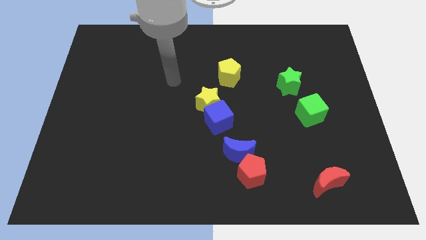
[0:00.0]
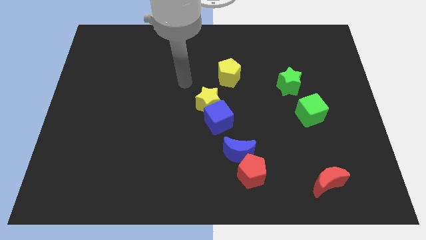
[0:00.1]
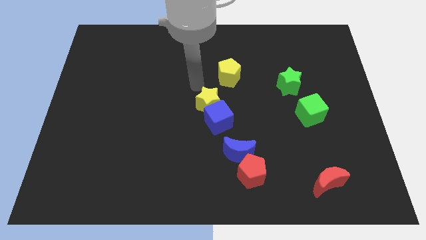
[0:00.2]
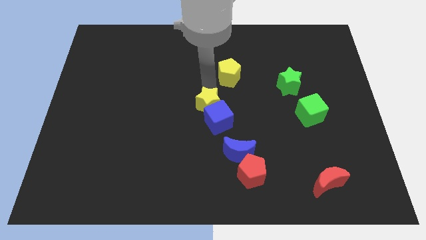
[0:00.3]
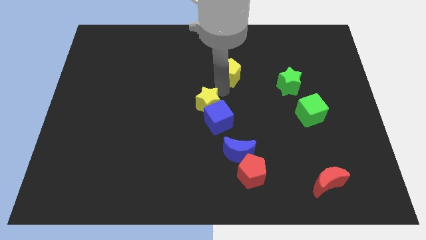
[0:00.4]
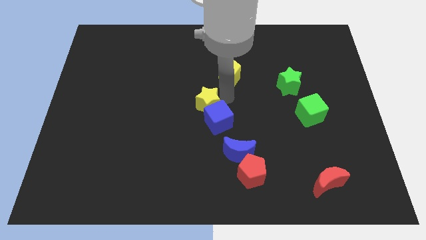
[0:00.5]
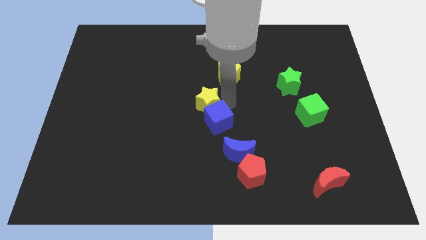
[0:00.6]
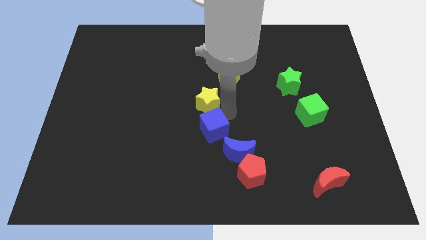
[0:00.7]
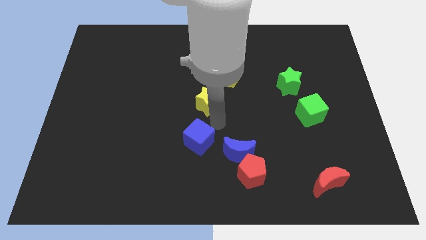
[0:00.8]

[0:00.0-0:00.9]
move the yellow star away from the blue cube

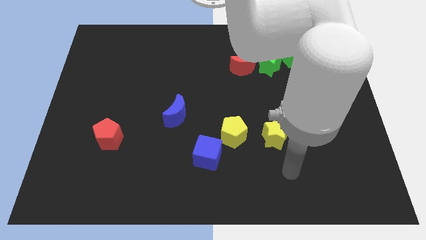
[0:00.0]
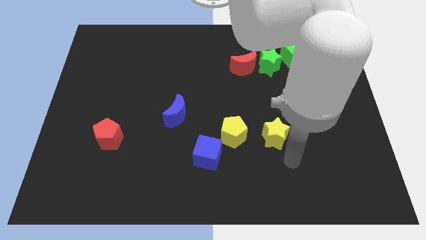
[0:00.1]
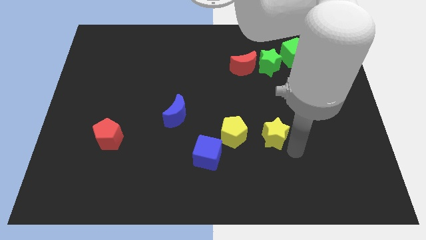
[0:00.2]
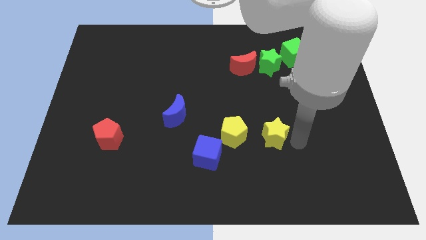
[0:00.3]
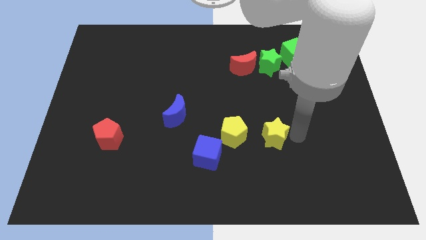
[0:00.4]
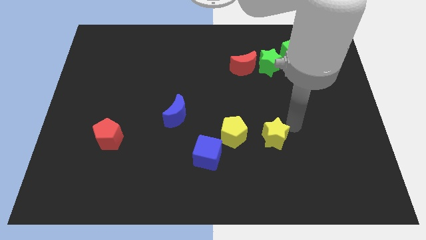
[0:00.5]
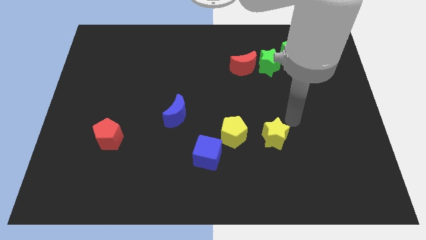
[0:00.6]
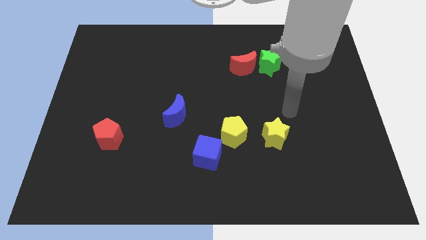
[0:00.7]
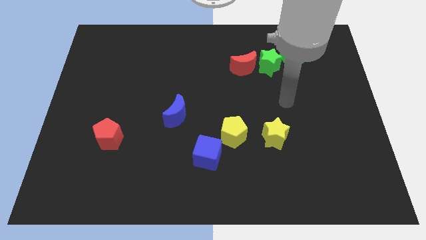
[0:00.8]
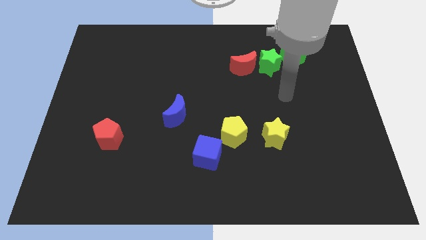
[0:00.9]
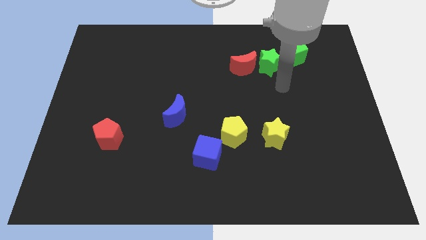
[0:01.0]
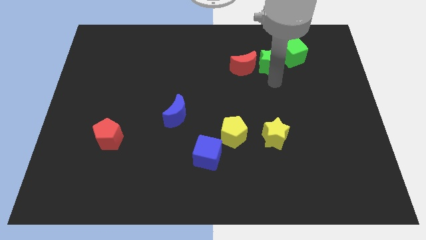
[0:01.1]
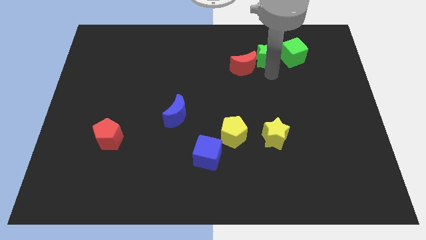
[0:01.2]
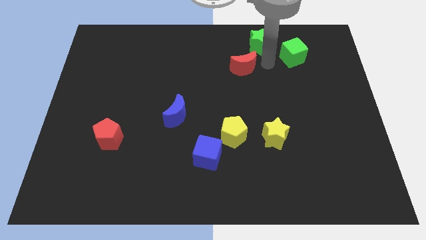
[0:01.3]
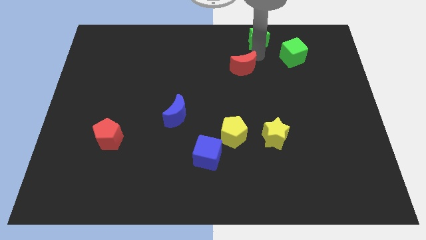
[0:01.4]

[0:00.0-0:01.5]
pull the red moon apart from the green star

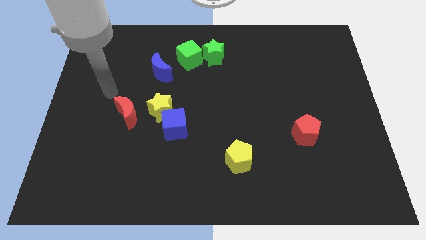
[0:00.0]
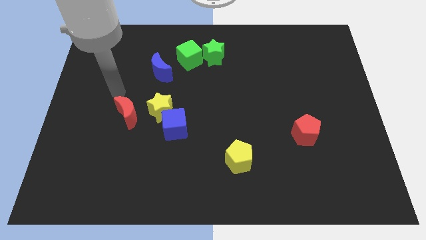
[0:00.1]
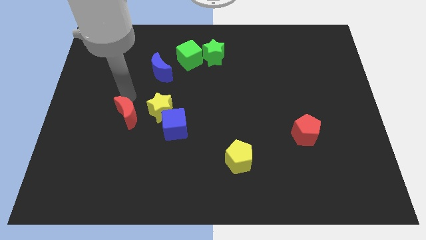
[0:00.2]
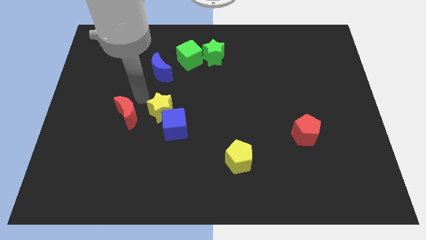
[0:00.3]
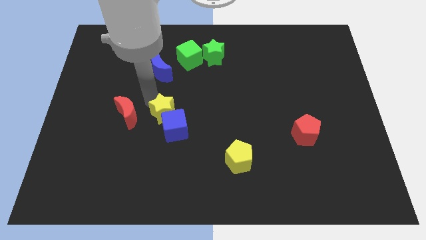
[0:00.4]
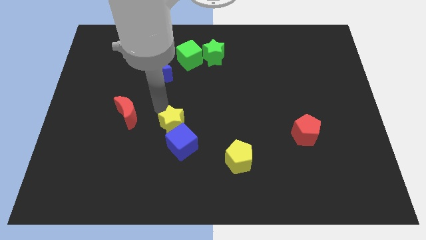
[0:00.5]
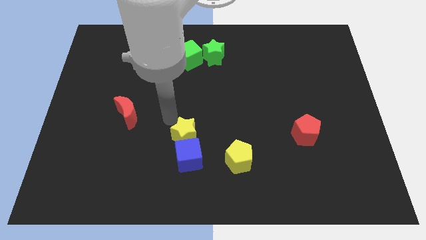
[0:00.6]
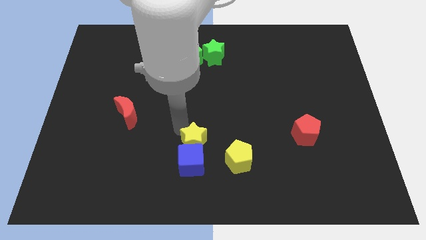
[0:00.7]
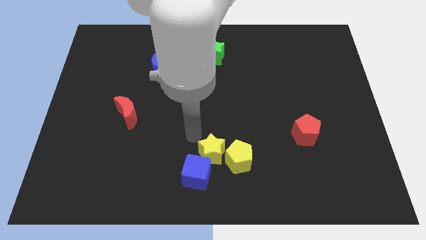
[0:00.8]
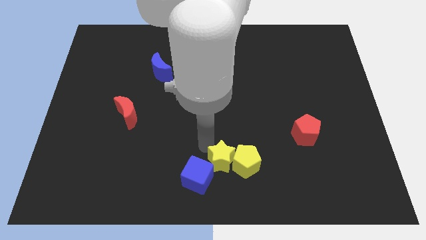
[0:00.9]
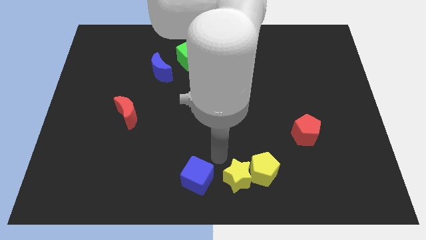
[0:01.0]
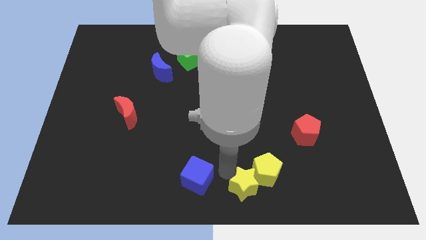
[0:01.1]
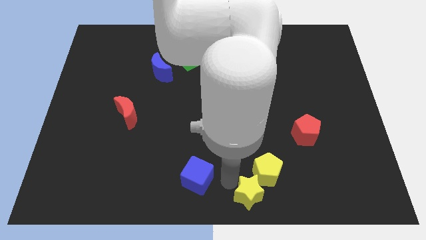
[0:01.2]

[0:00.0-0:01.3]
pull the blue cube apart from the yellow star

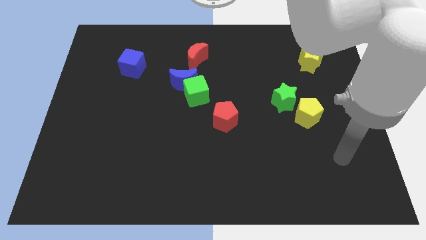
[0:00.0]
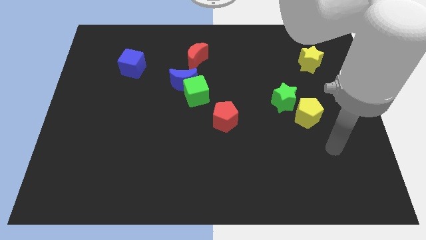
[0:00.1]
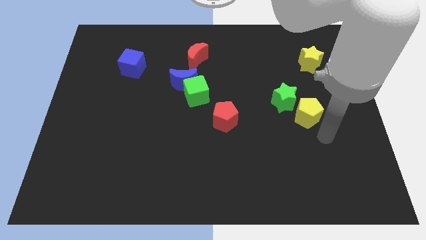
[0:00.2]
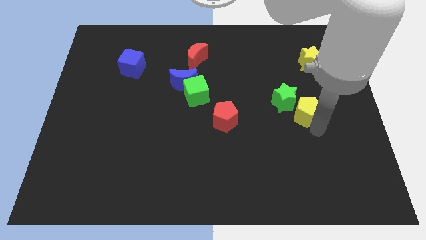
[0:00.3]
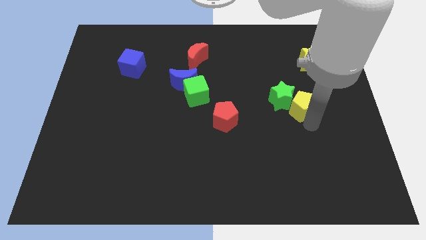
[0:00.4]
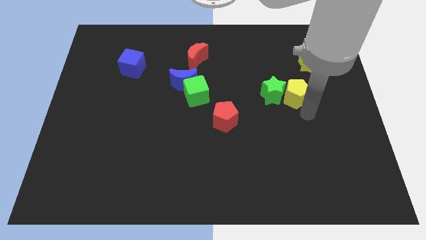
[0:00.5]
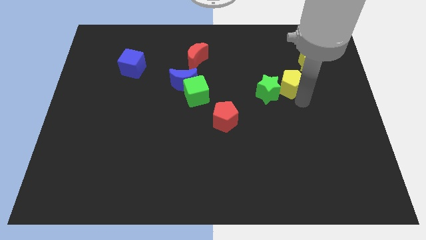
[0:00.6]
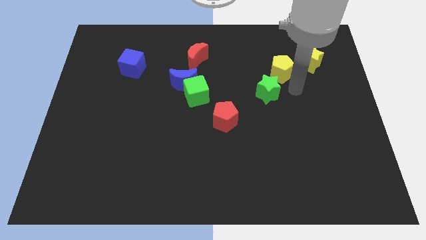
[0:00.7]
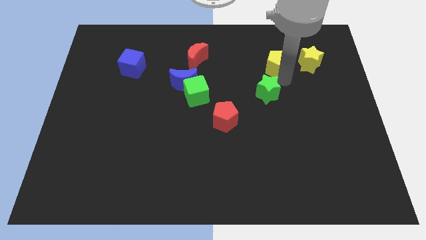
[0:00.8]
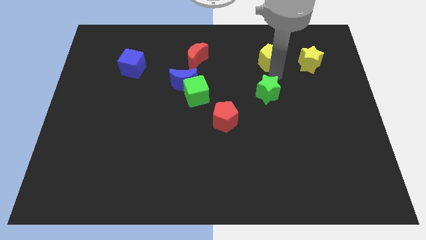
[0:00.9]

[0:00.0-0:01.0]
separate the green star from the yellow pentagon

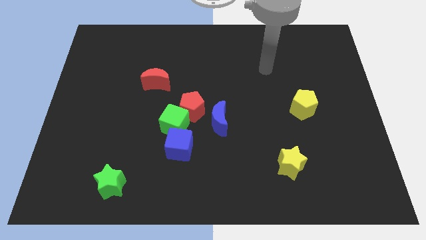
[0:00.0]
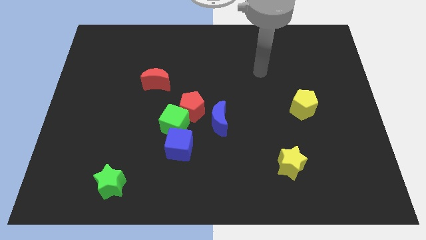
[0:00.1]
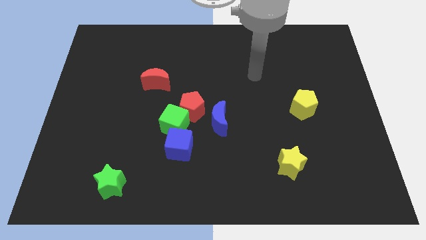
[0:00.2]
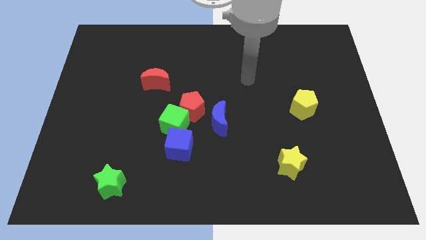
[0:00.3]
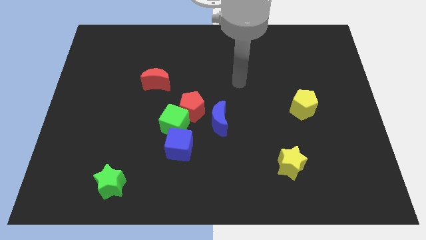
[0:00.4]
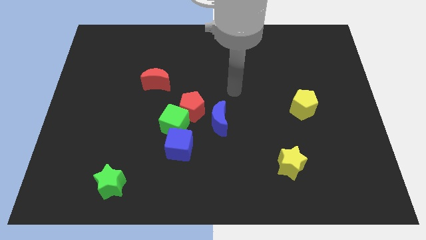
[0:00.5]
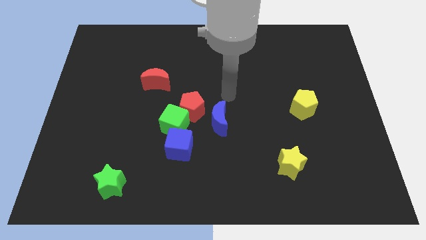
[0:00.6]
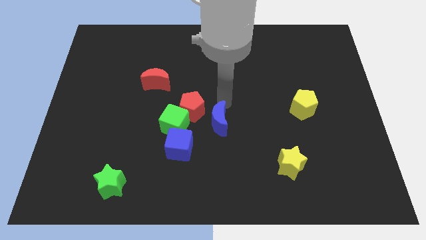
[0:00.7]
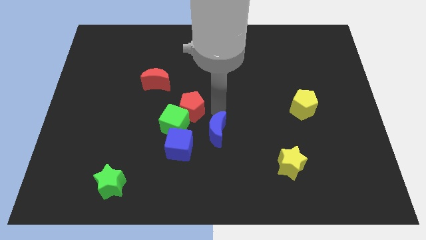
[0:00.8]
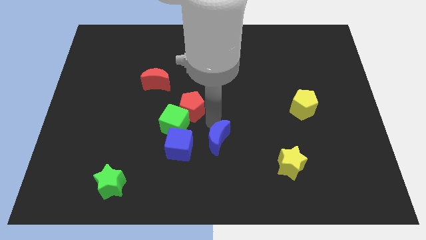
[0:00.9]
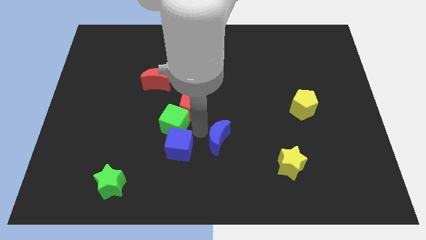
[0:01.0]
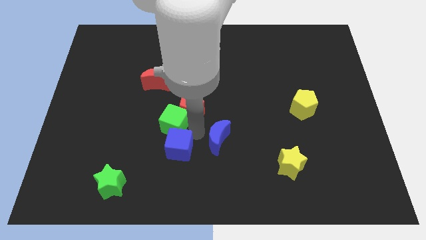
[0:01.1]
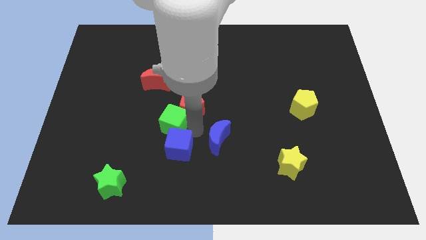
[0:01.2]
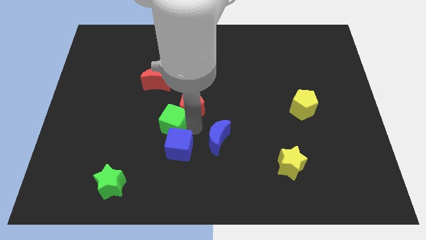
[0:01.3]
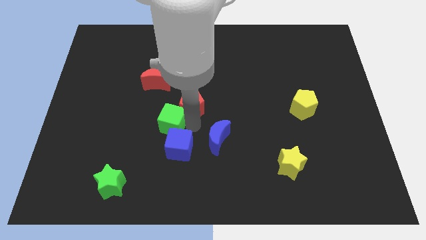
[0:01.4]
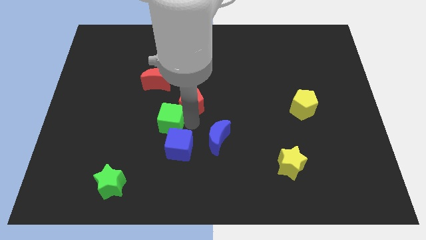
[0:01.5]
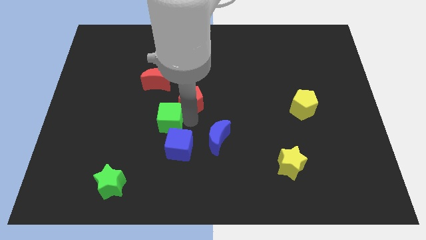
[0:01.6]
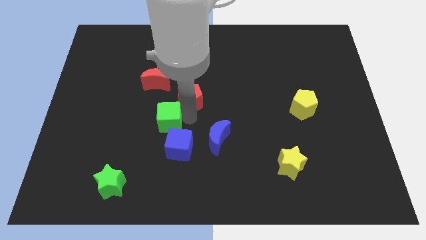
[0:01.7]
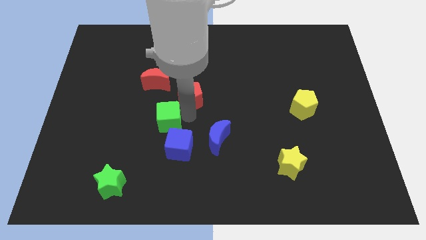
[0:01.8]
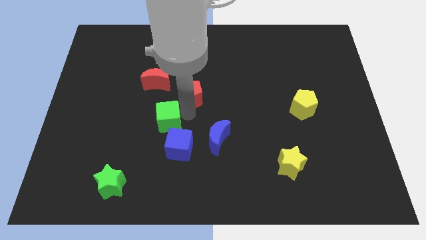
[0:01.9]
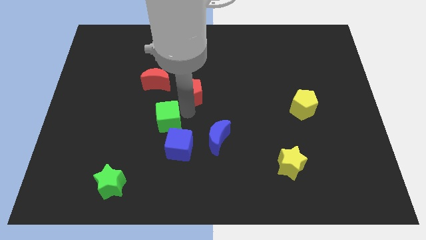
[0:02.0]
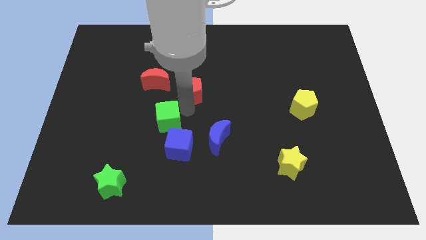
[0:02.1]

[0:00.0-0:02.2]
separate the red pentagon from the green cube and blue moon

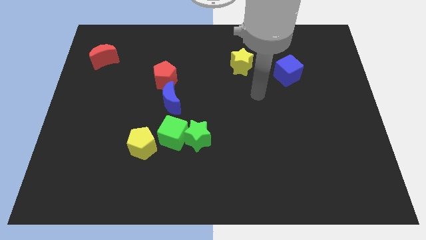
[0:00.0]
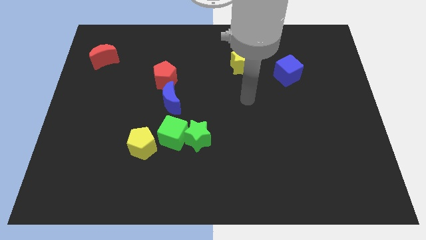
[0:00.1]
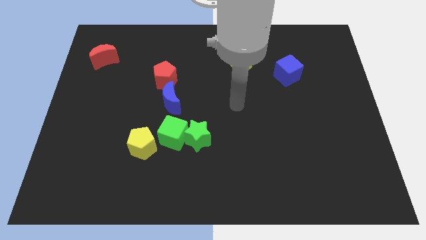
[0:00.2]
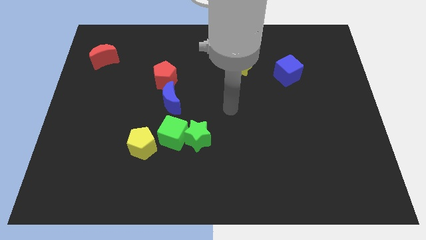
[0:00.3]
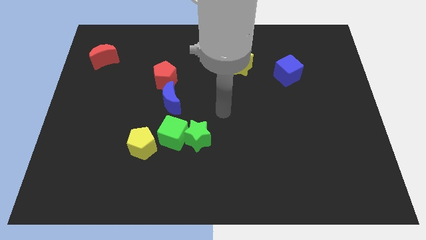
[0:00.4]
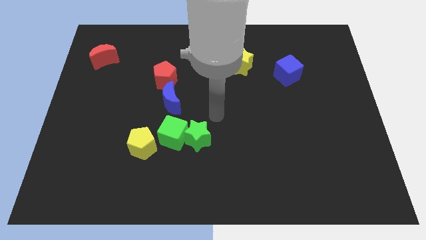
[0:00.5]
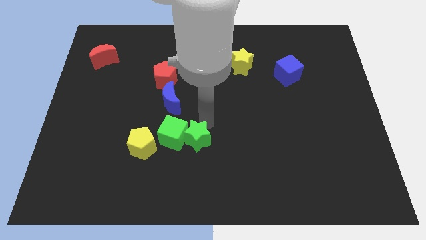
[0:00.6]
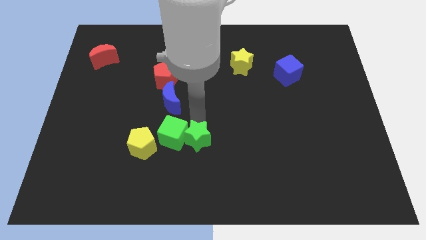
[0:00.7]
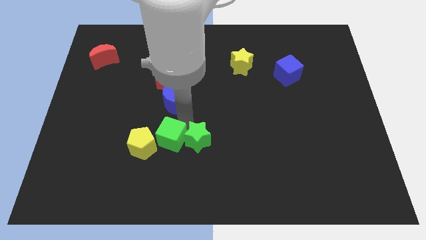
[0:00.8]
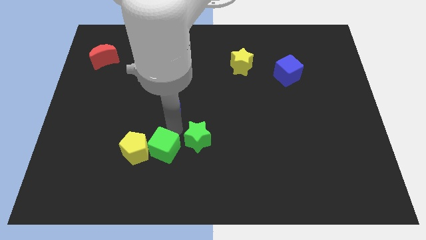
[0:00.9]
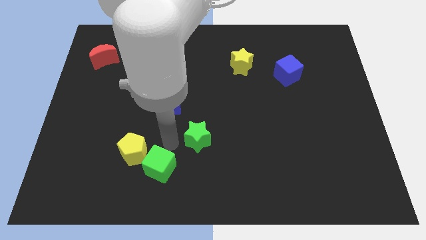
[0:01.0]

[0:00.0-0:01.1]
pull the green star apart from the green cube

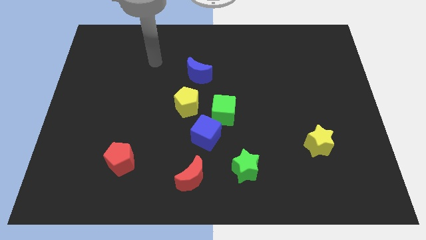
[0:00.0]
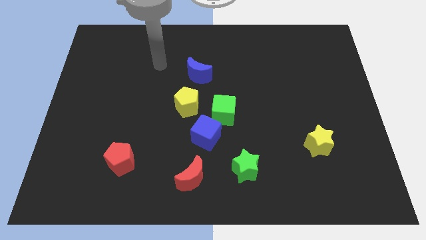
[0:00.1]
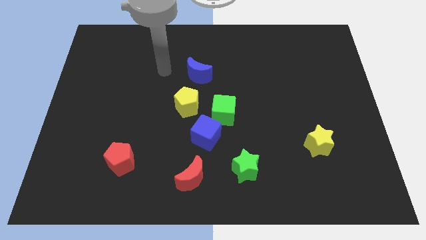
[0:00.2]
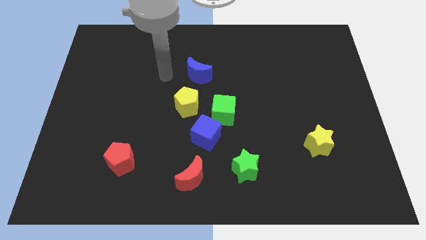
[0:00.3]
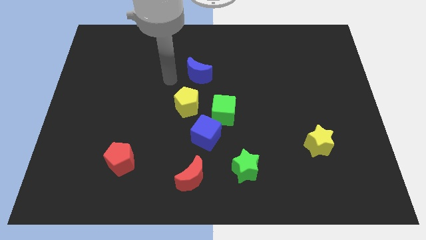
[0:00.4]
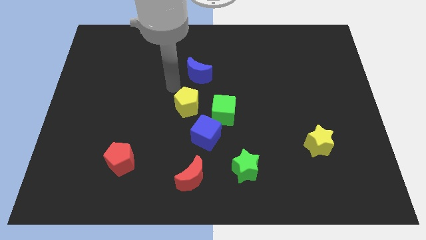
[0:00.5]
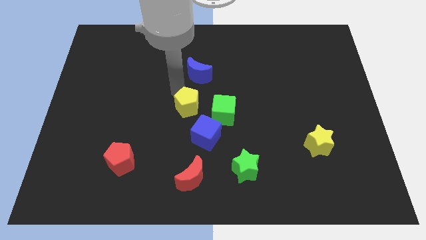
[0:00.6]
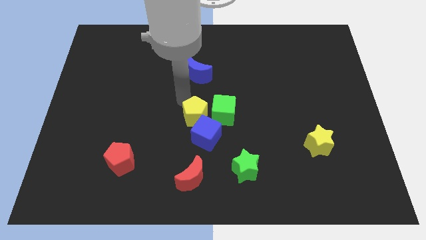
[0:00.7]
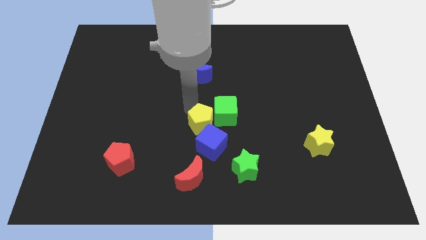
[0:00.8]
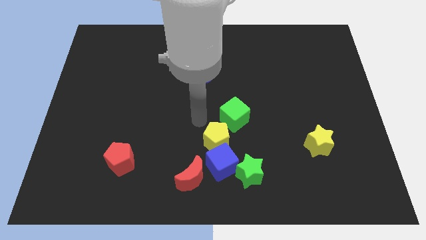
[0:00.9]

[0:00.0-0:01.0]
separate the green cube from the blue cube and yellow pentagon

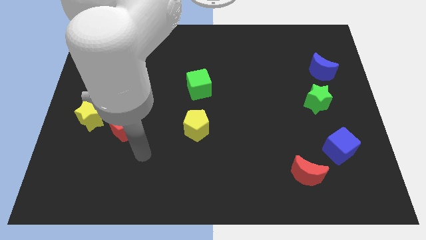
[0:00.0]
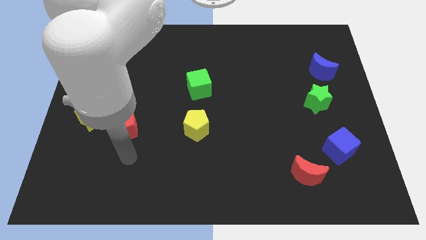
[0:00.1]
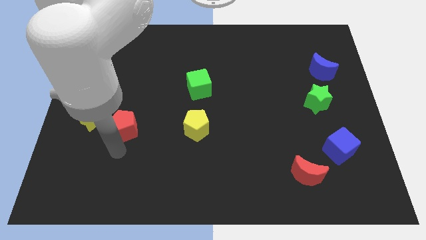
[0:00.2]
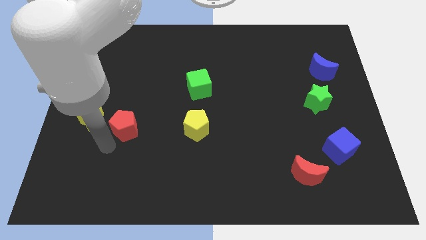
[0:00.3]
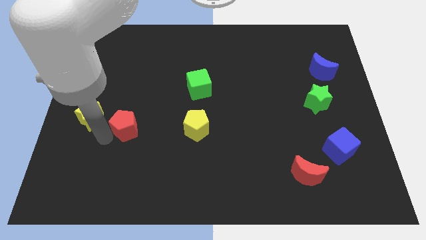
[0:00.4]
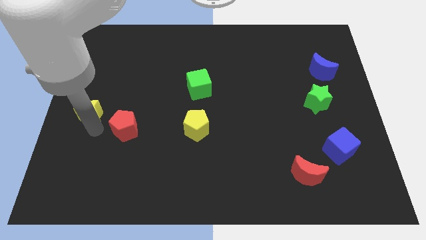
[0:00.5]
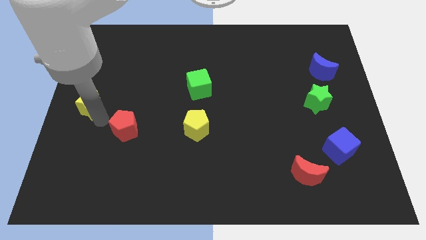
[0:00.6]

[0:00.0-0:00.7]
move the red pentagon away from the yellow star
